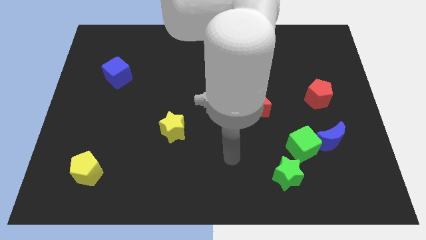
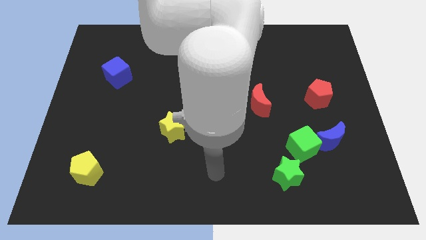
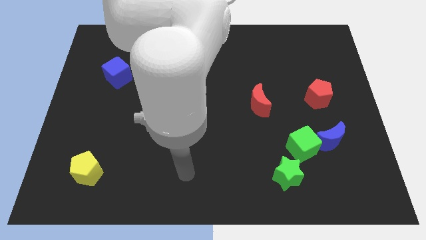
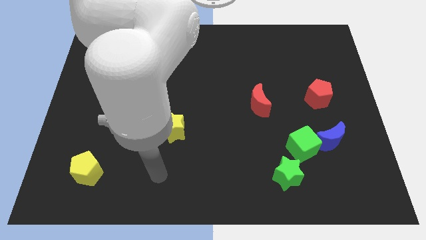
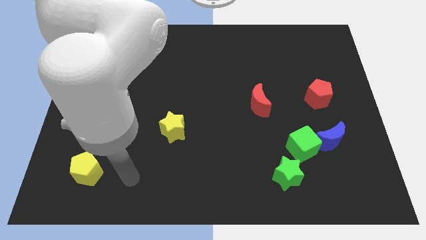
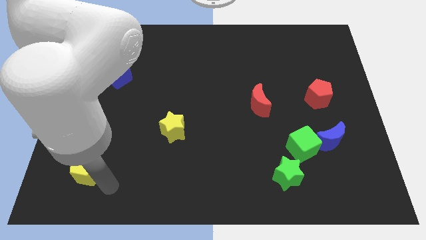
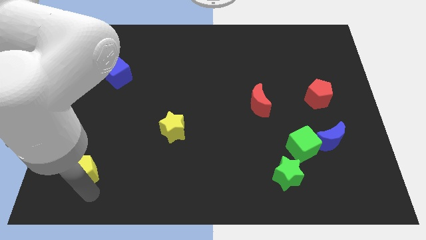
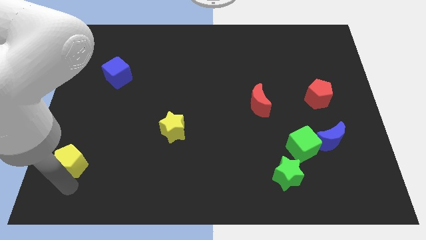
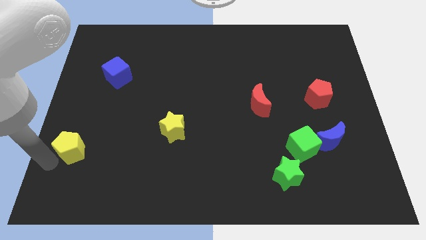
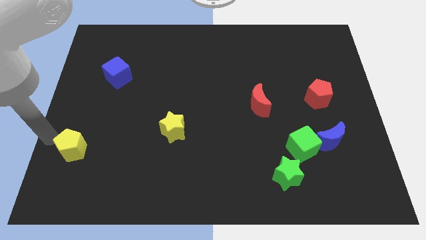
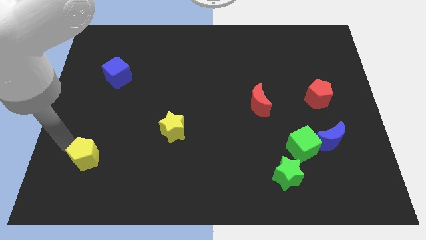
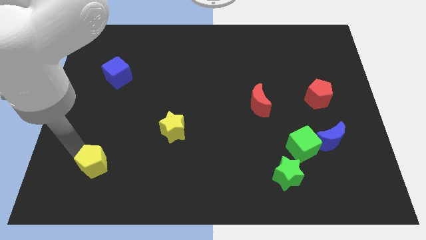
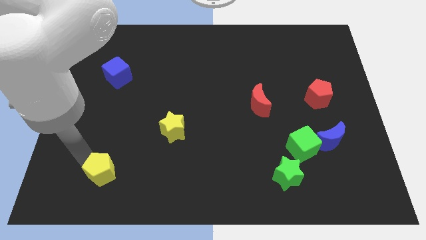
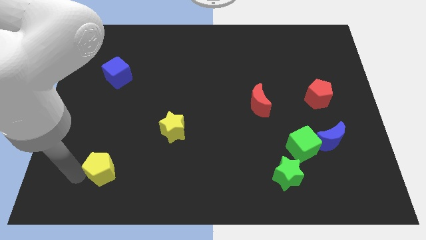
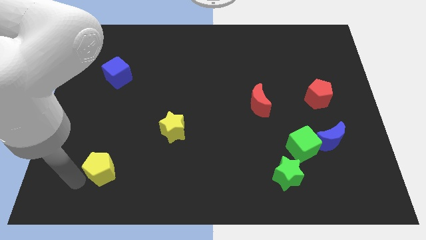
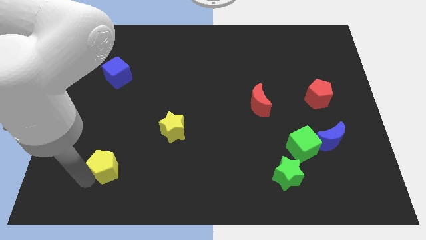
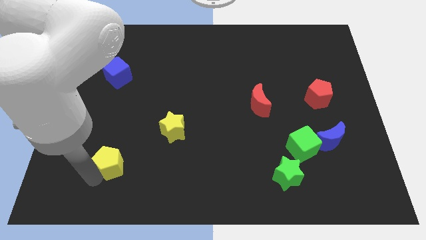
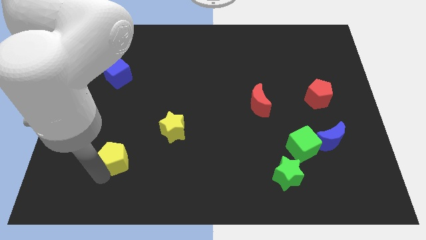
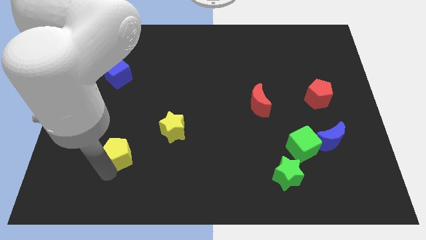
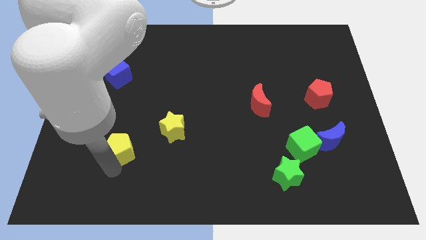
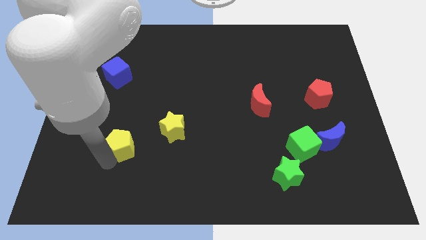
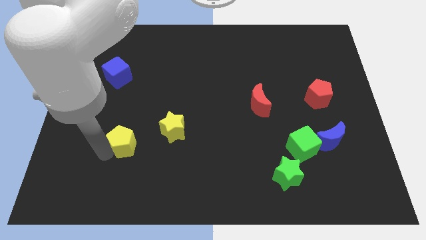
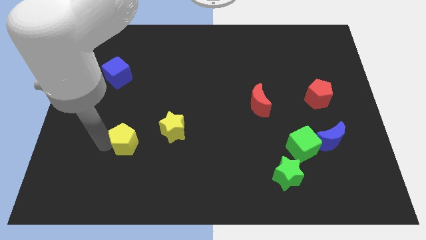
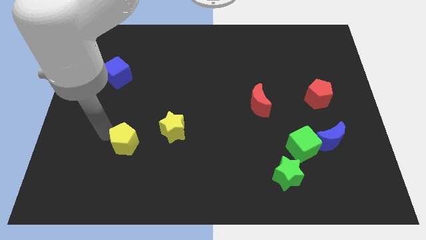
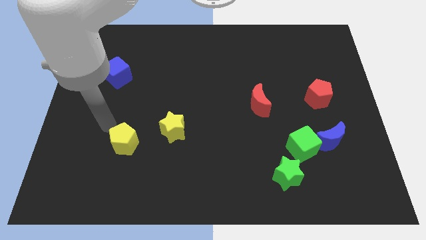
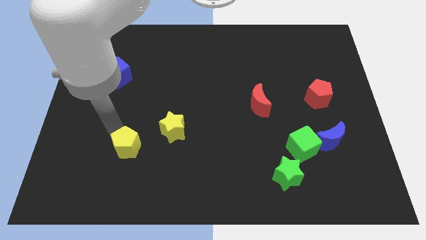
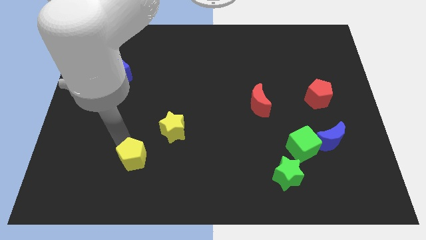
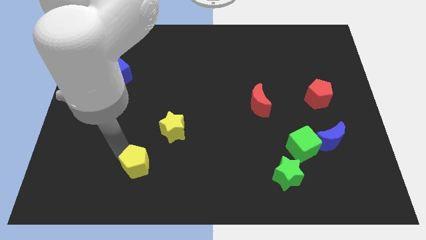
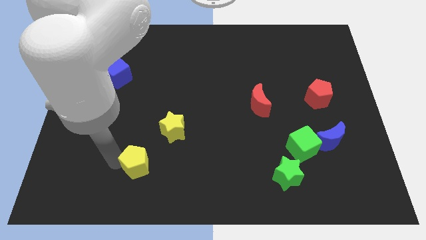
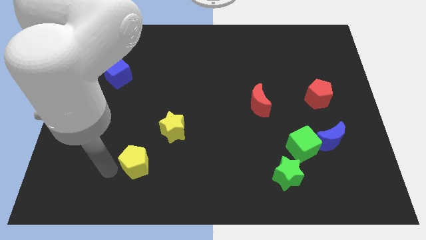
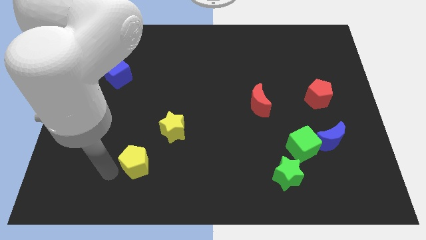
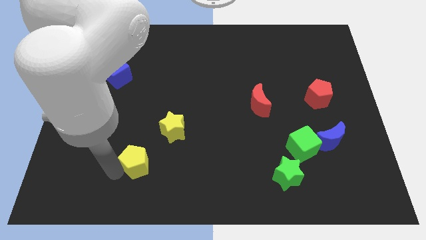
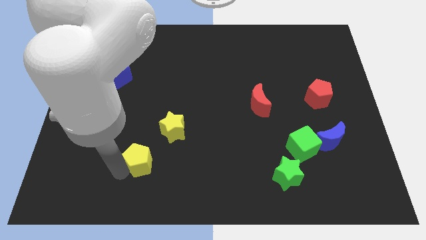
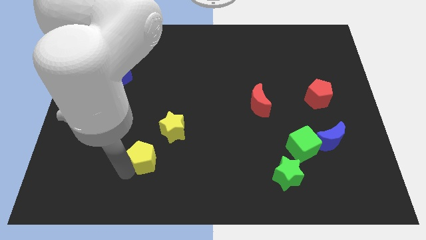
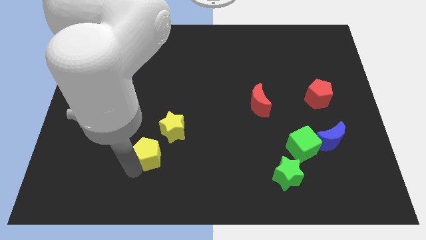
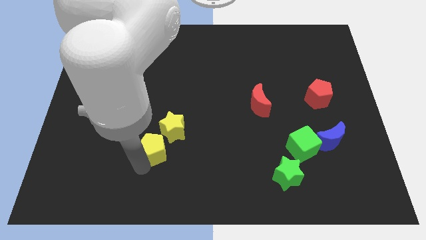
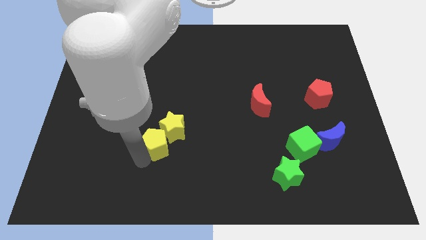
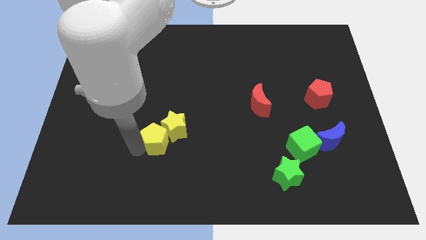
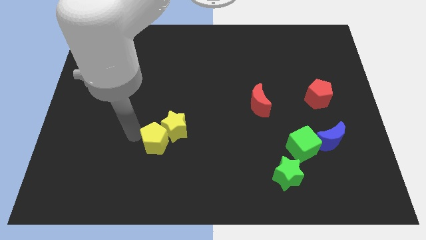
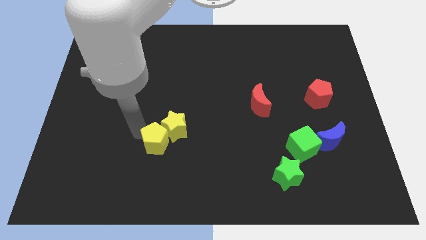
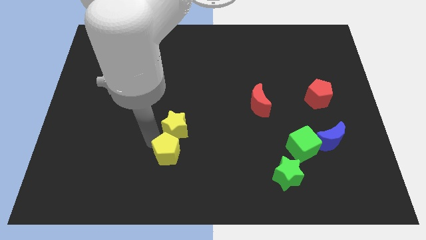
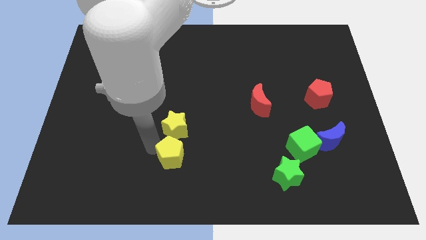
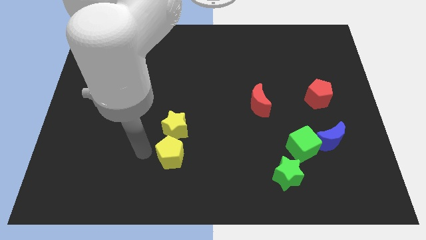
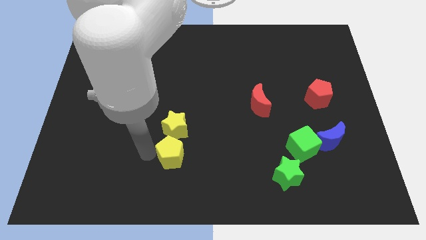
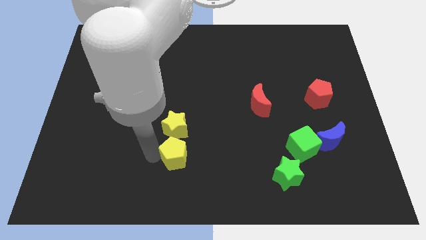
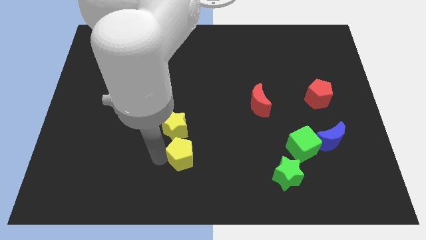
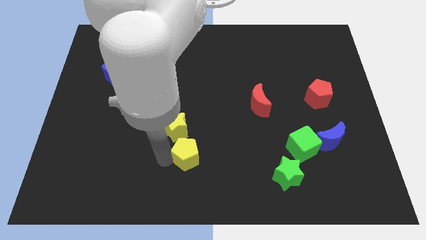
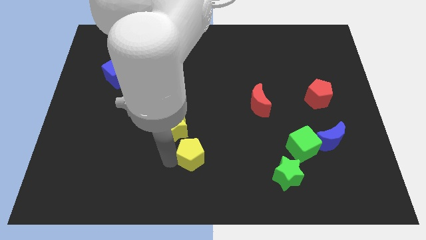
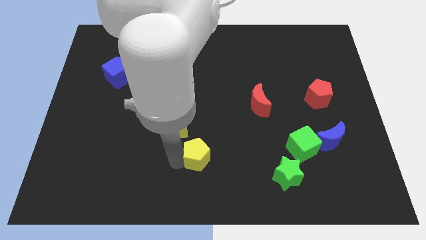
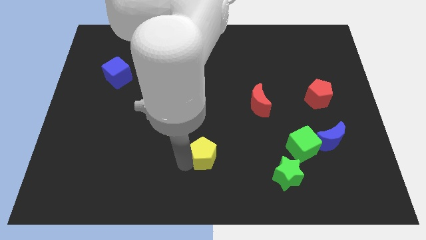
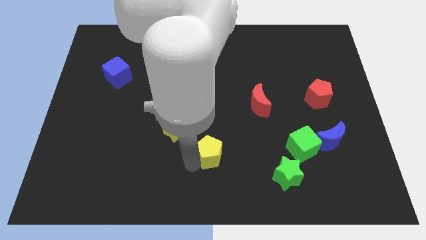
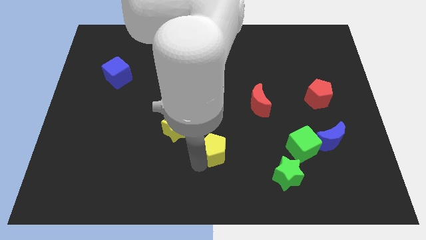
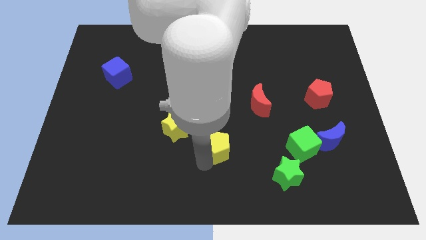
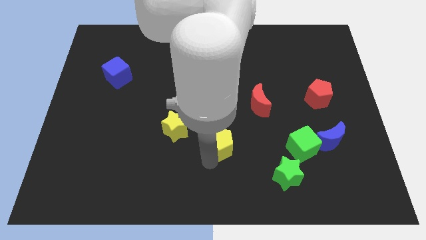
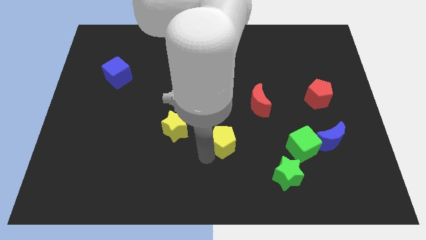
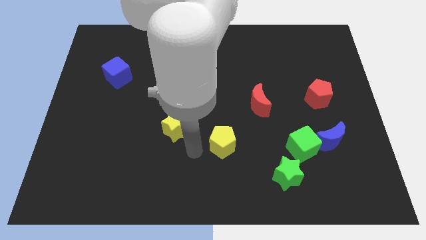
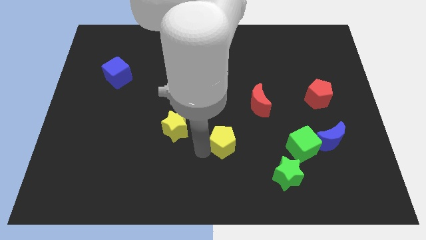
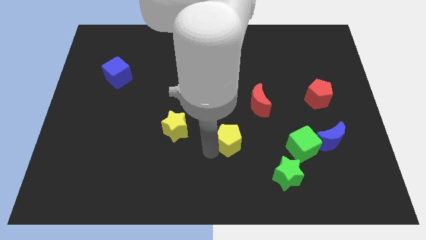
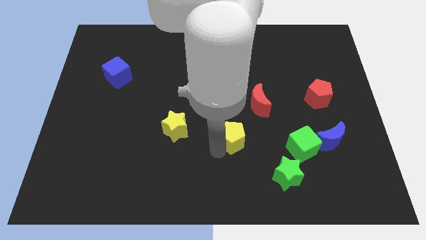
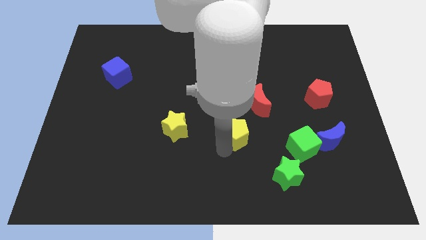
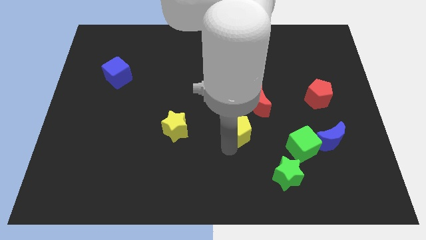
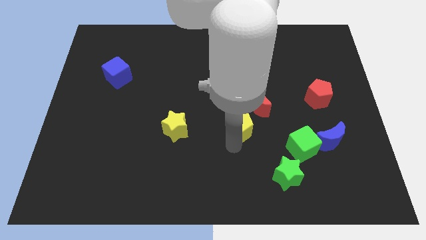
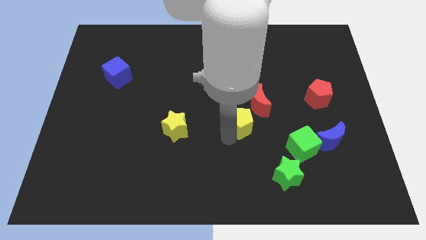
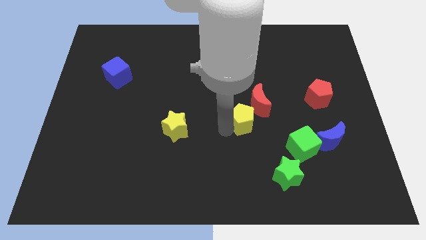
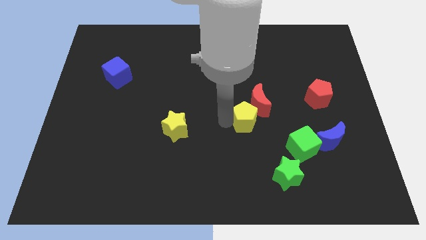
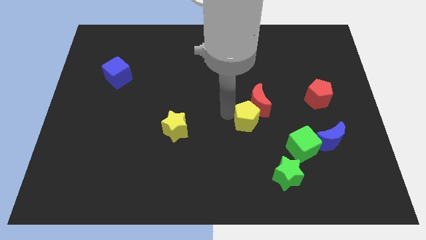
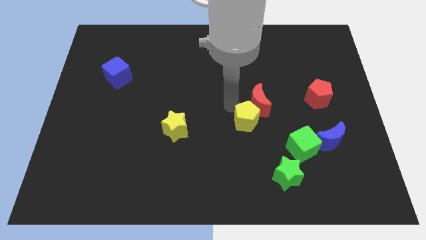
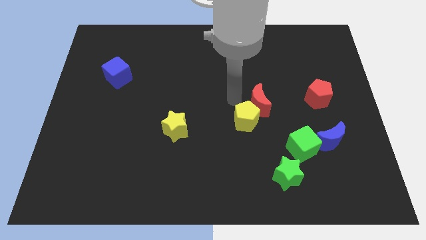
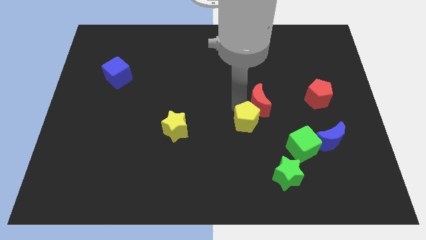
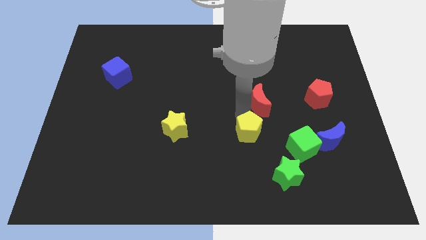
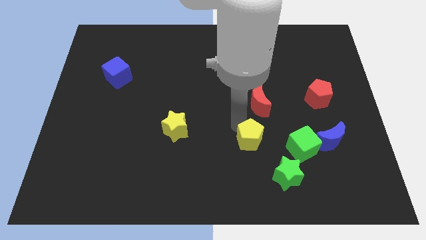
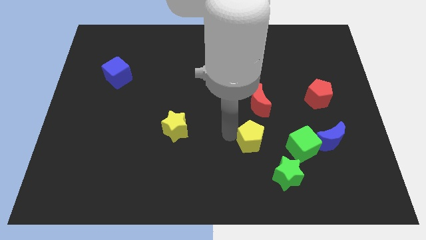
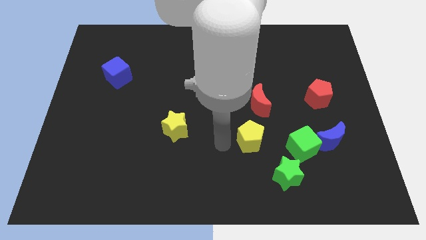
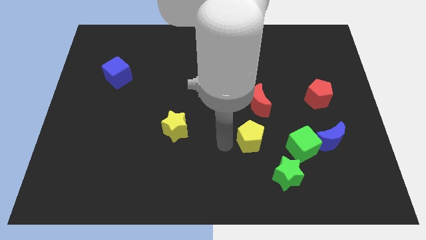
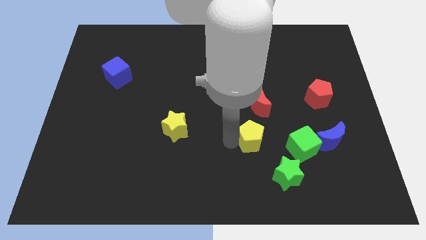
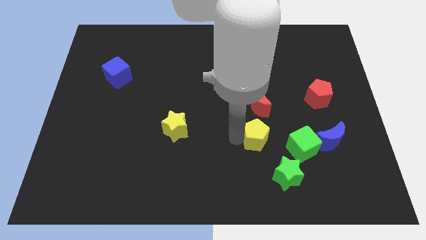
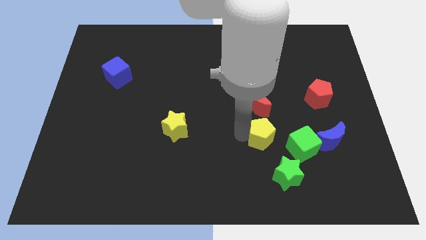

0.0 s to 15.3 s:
push the yellow pentagon above the green star
